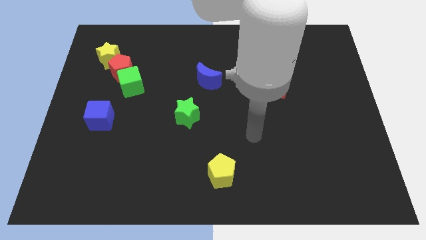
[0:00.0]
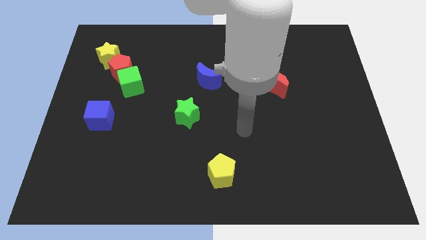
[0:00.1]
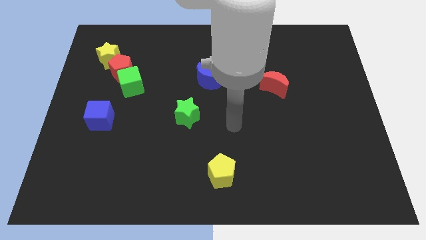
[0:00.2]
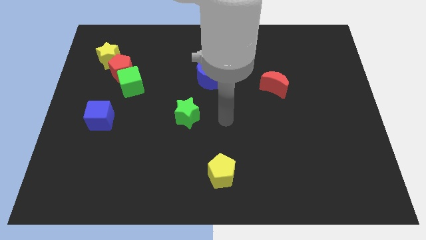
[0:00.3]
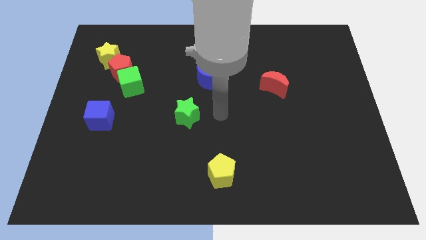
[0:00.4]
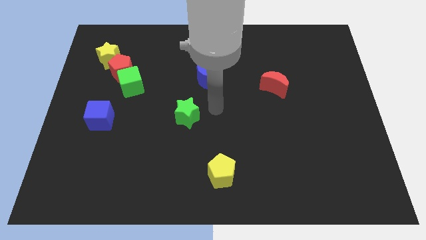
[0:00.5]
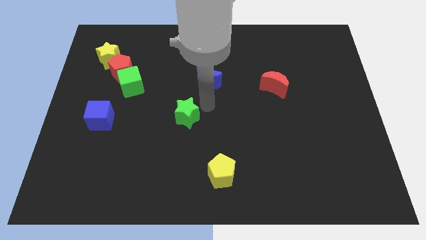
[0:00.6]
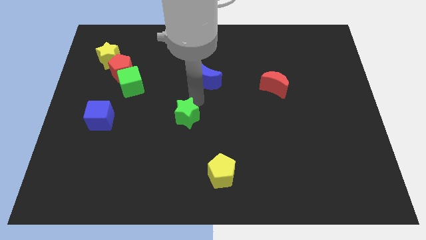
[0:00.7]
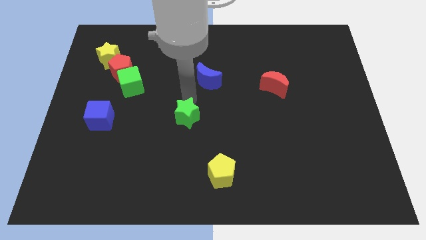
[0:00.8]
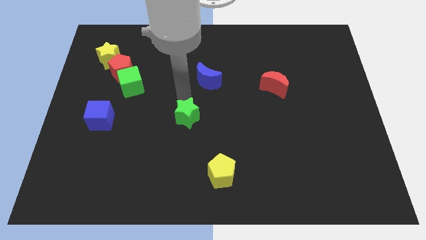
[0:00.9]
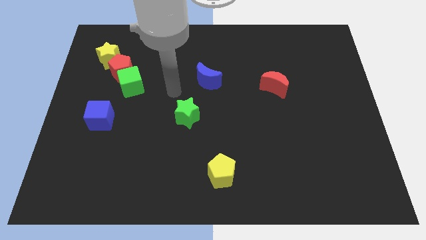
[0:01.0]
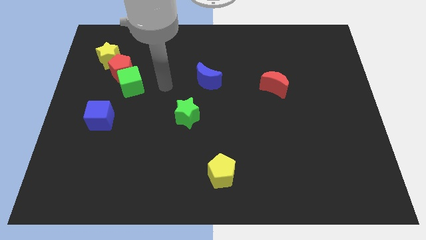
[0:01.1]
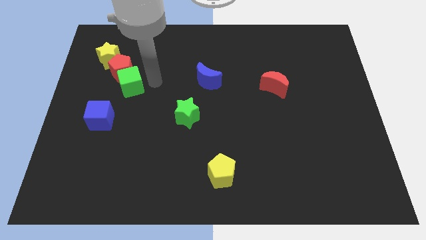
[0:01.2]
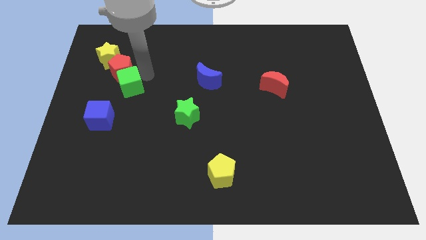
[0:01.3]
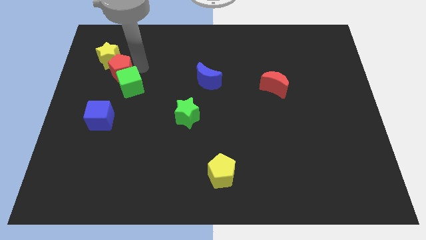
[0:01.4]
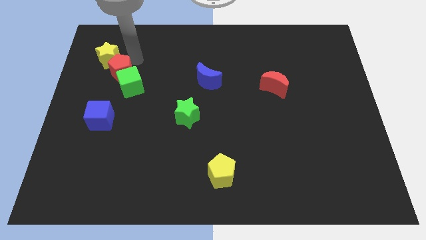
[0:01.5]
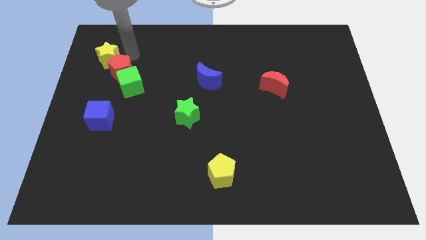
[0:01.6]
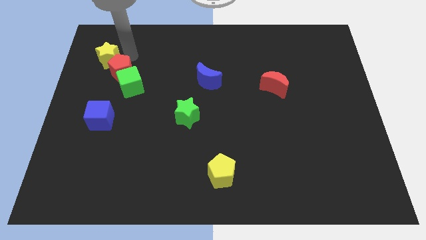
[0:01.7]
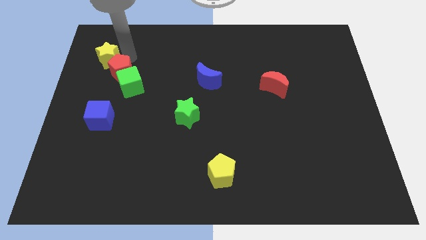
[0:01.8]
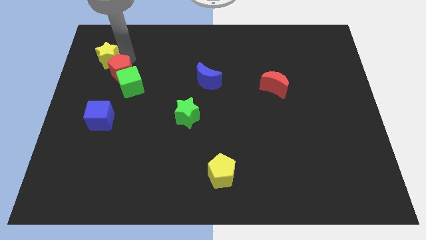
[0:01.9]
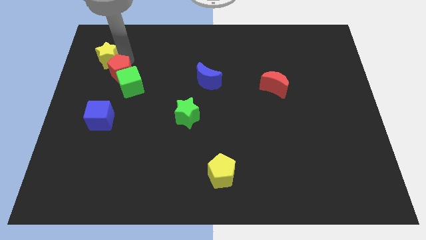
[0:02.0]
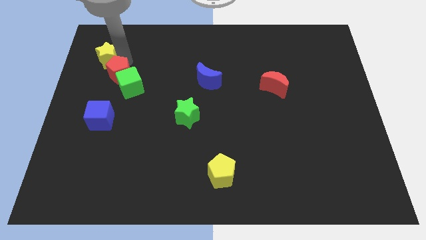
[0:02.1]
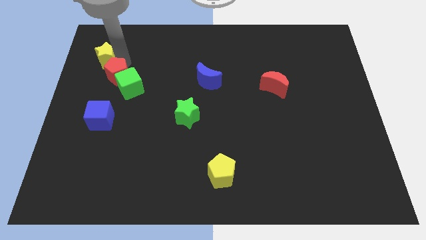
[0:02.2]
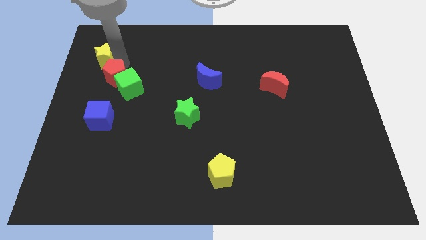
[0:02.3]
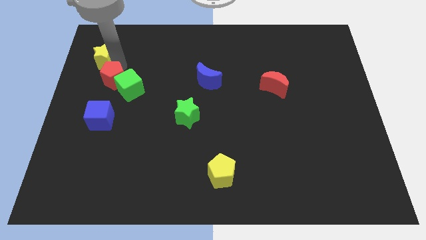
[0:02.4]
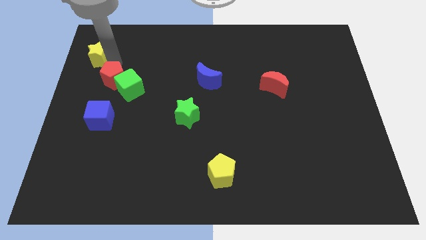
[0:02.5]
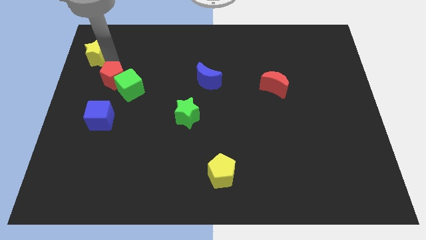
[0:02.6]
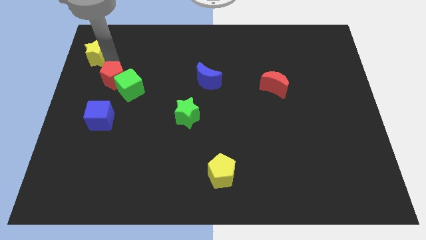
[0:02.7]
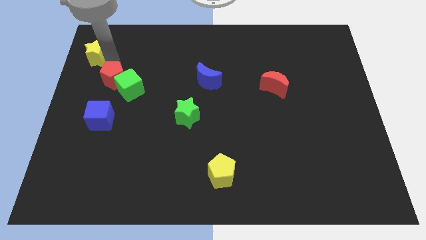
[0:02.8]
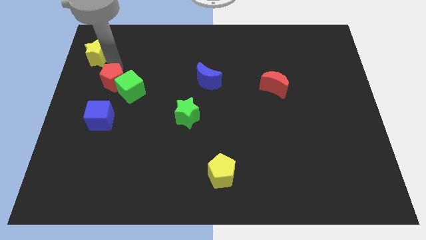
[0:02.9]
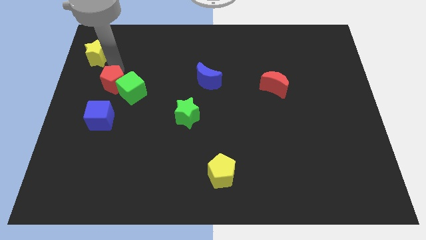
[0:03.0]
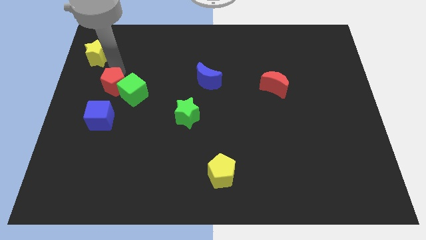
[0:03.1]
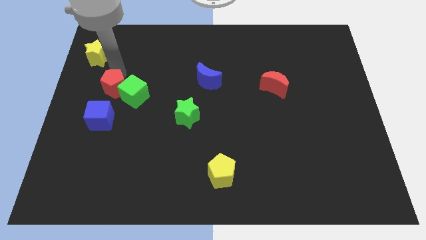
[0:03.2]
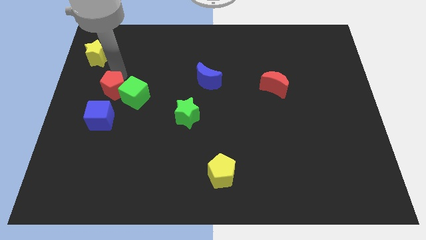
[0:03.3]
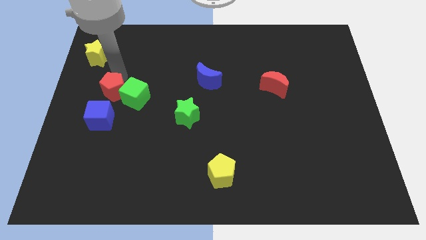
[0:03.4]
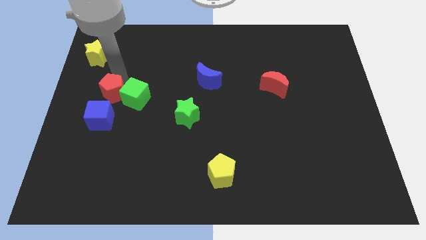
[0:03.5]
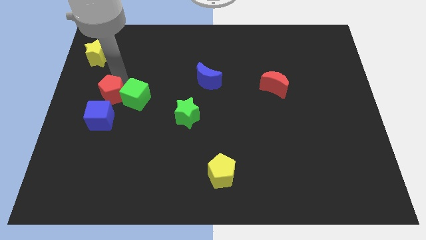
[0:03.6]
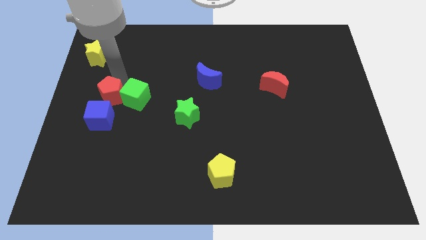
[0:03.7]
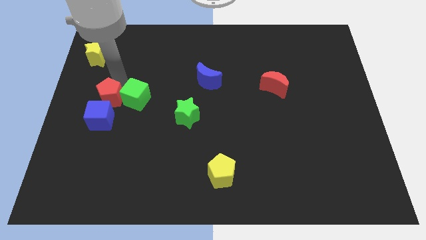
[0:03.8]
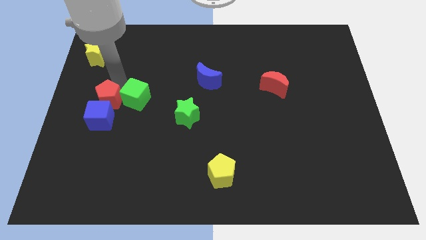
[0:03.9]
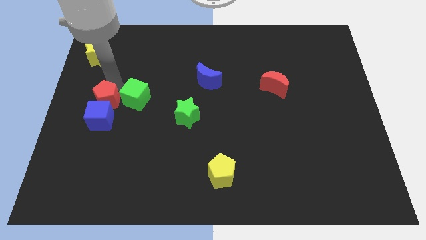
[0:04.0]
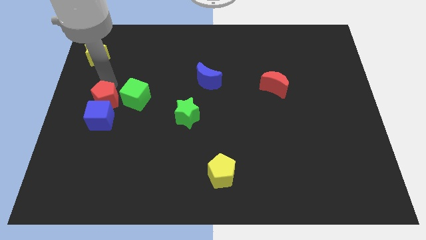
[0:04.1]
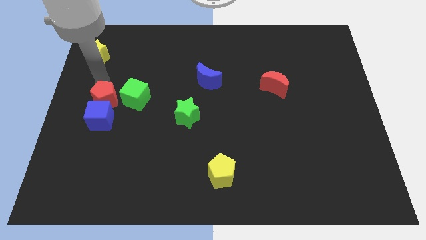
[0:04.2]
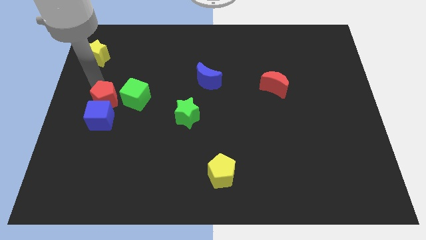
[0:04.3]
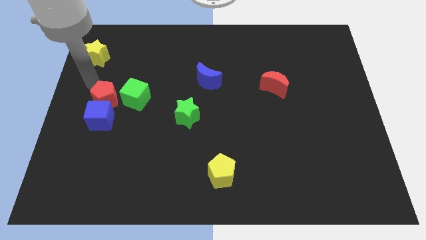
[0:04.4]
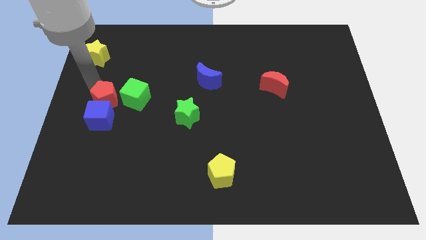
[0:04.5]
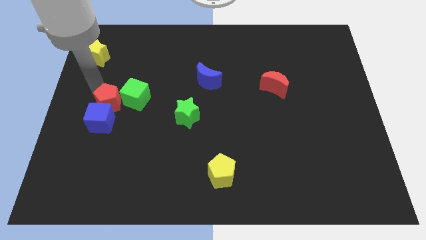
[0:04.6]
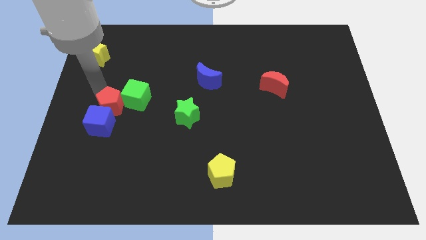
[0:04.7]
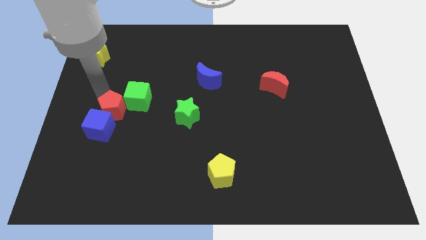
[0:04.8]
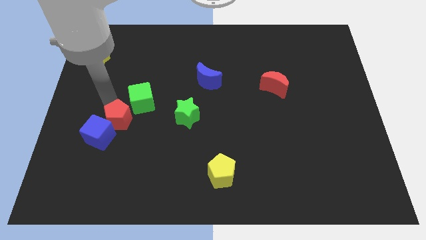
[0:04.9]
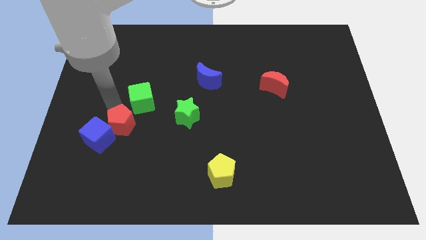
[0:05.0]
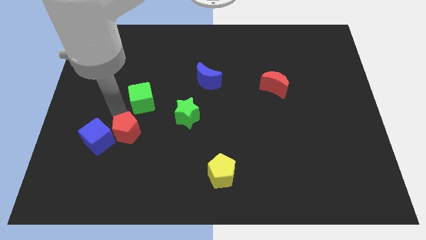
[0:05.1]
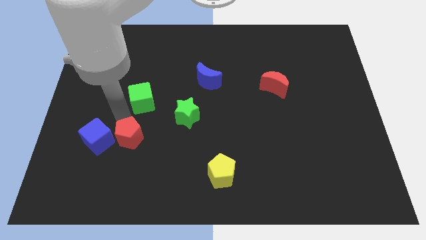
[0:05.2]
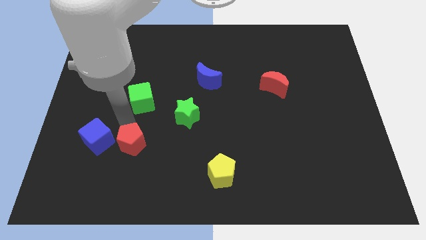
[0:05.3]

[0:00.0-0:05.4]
move the red pentagon diagonally down and to the right of the blue cube

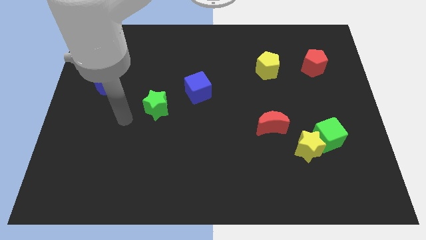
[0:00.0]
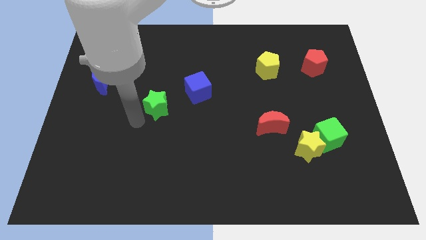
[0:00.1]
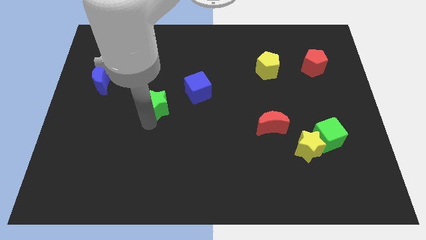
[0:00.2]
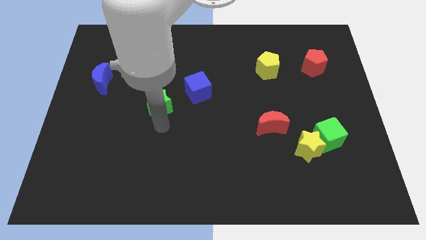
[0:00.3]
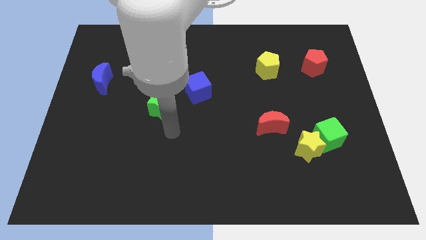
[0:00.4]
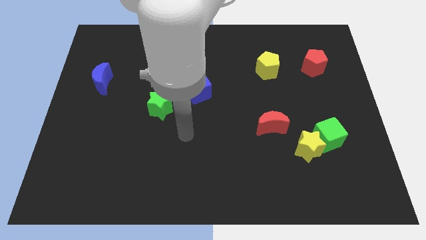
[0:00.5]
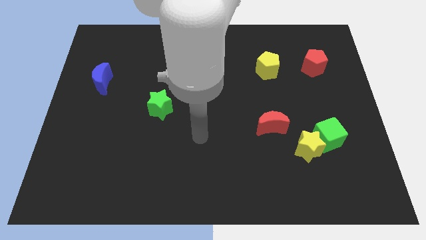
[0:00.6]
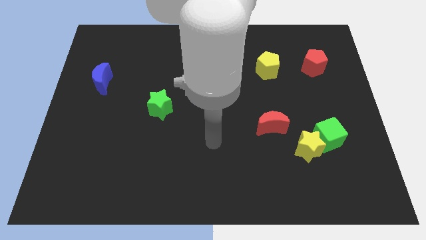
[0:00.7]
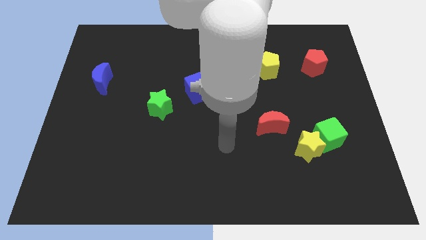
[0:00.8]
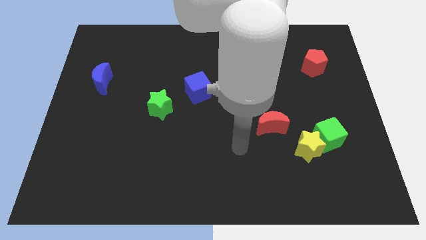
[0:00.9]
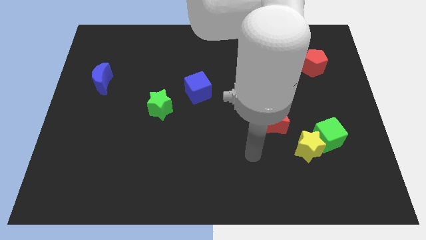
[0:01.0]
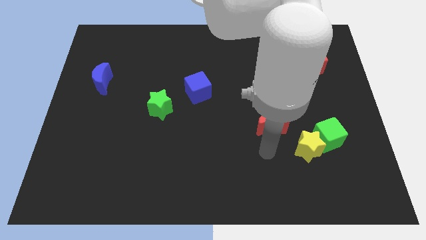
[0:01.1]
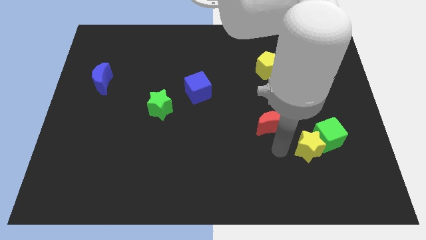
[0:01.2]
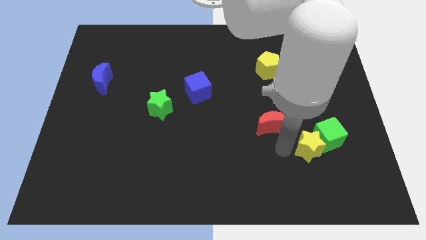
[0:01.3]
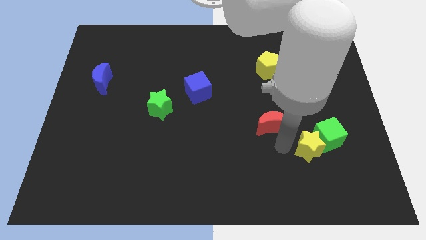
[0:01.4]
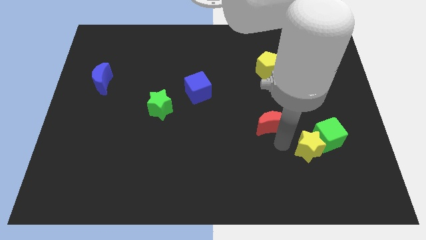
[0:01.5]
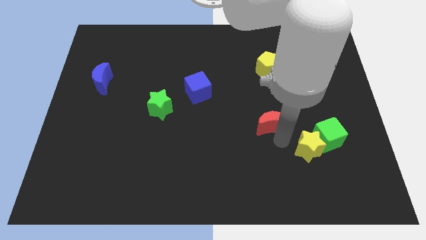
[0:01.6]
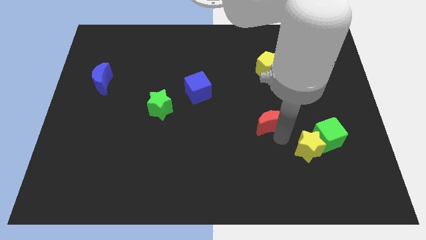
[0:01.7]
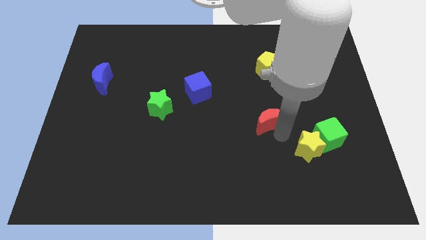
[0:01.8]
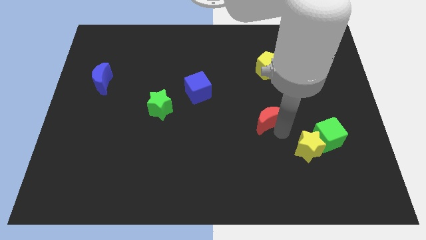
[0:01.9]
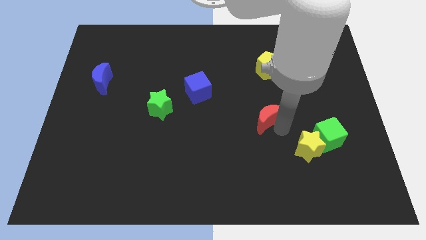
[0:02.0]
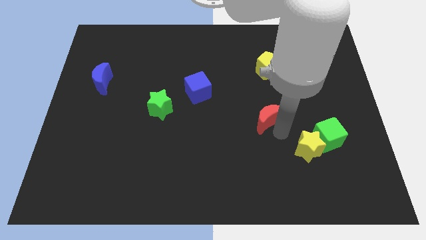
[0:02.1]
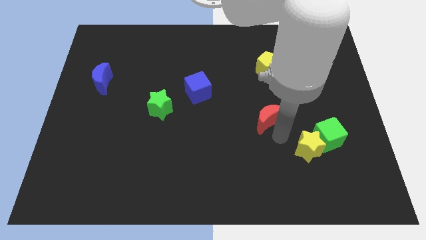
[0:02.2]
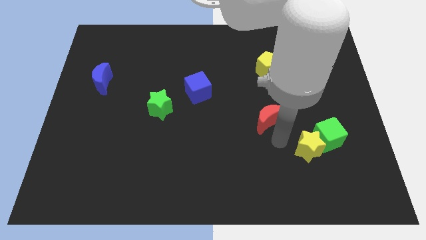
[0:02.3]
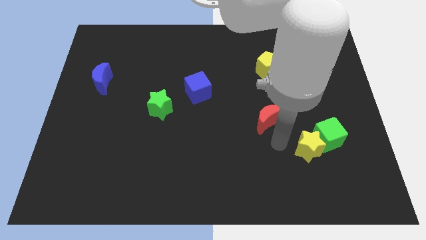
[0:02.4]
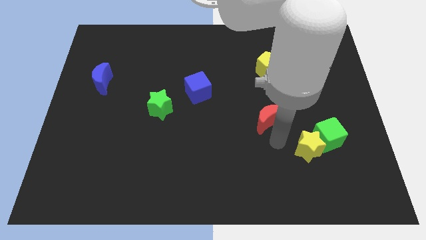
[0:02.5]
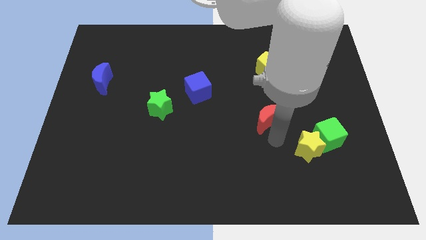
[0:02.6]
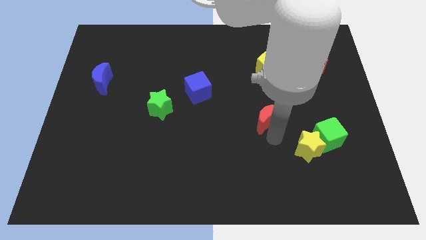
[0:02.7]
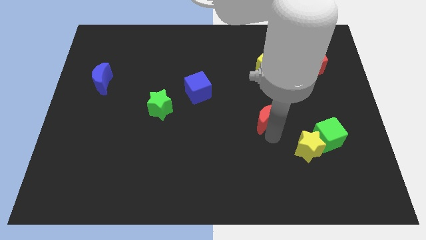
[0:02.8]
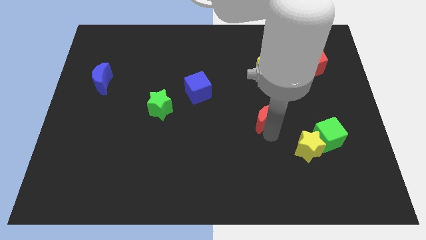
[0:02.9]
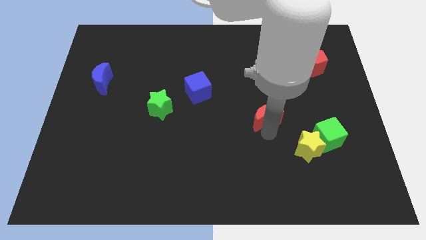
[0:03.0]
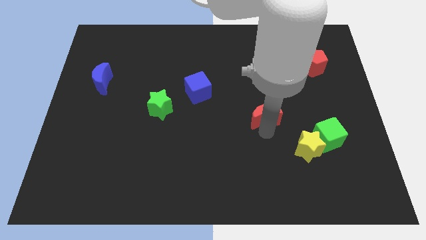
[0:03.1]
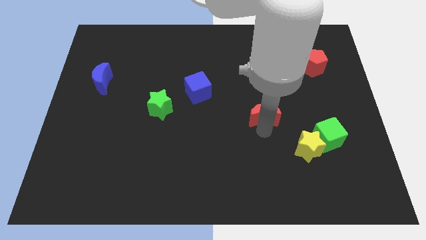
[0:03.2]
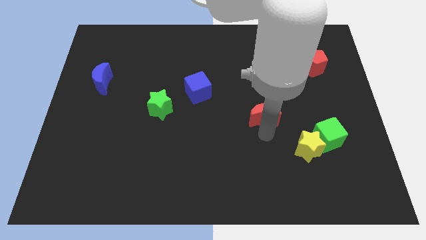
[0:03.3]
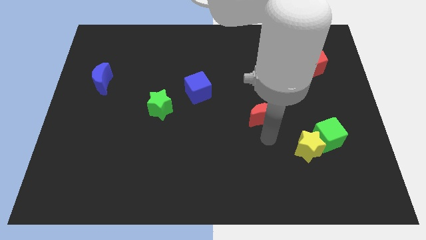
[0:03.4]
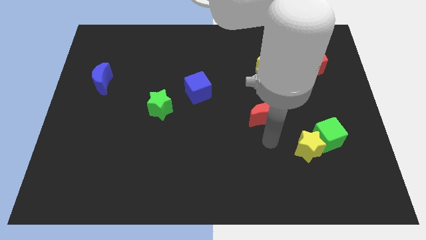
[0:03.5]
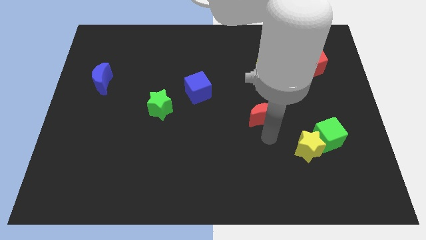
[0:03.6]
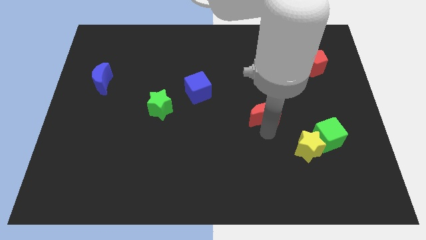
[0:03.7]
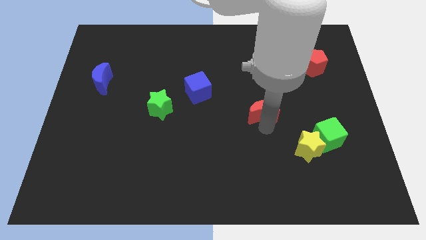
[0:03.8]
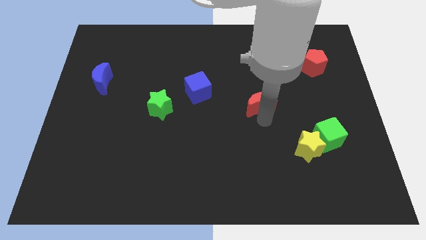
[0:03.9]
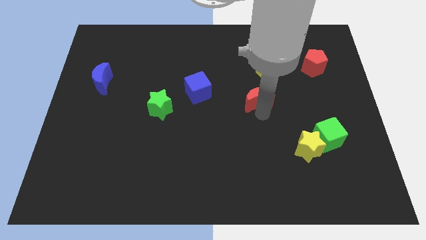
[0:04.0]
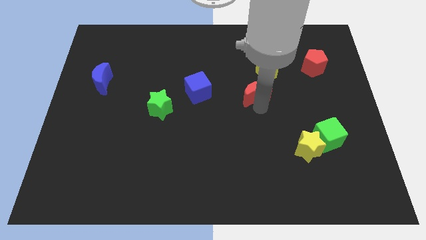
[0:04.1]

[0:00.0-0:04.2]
push the red moon diagonally down and to the left of the yellow pentagon
